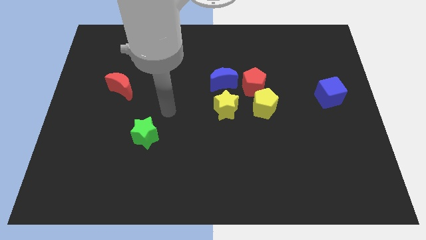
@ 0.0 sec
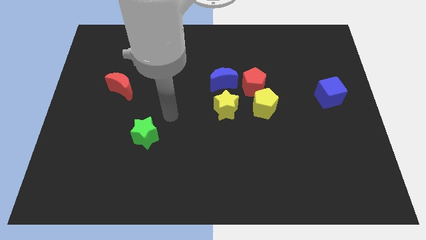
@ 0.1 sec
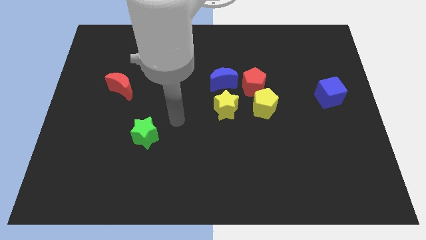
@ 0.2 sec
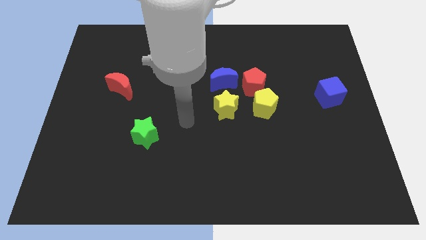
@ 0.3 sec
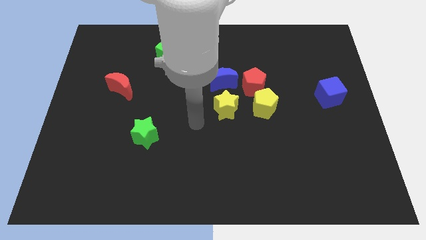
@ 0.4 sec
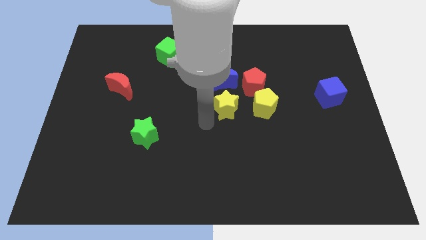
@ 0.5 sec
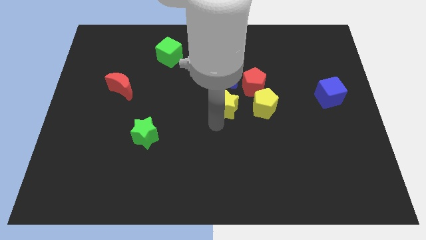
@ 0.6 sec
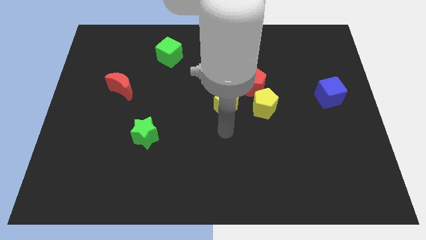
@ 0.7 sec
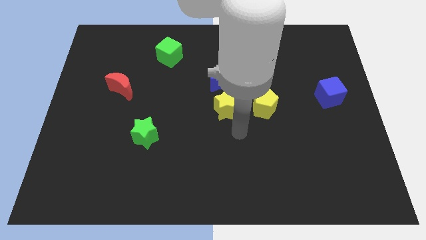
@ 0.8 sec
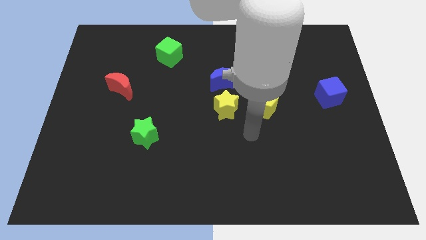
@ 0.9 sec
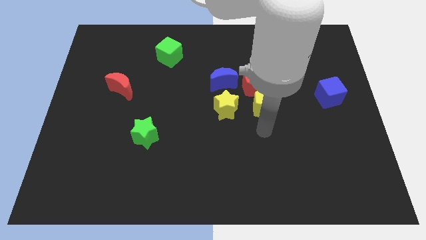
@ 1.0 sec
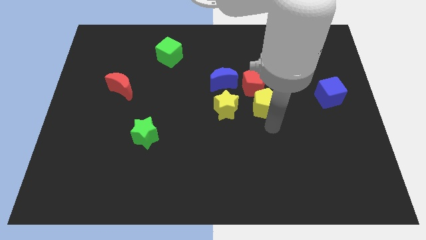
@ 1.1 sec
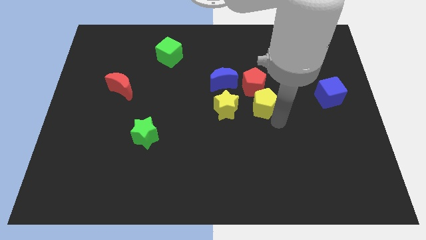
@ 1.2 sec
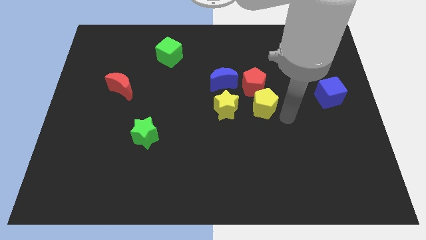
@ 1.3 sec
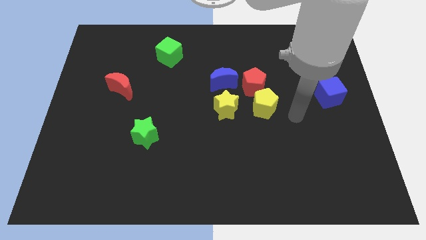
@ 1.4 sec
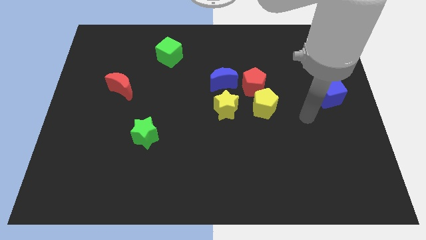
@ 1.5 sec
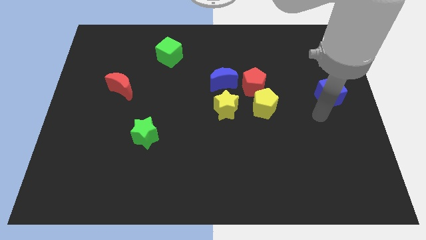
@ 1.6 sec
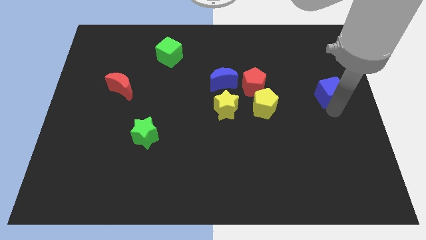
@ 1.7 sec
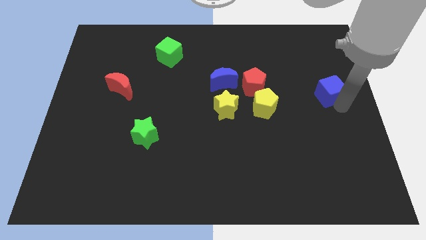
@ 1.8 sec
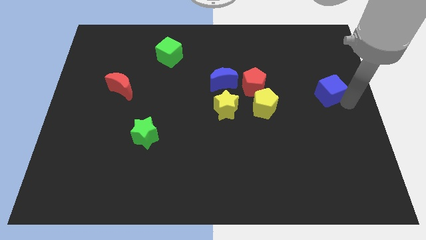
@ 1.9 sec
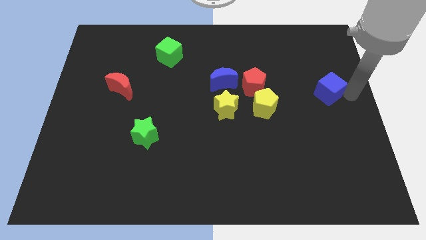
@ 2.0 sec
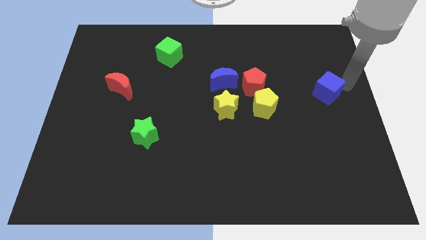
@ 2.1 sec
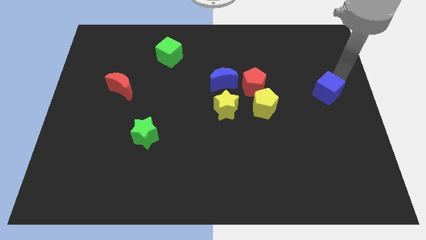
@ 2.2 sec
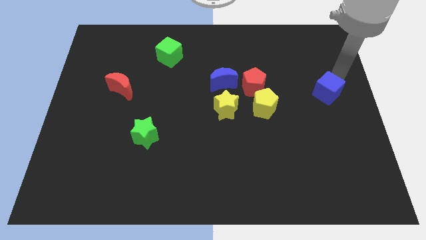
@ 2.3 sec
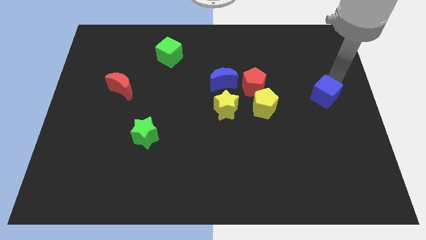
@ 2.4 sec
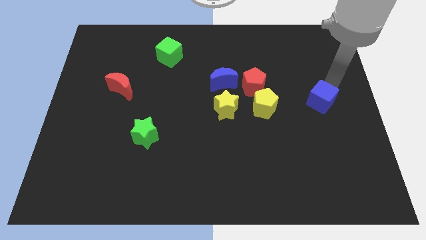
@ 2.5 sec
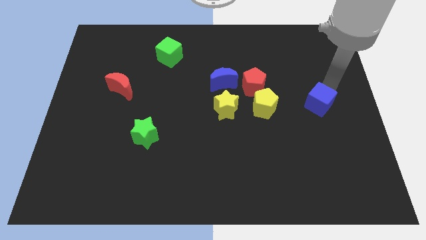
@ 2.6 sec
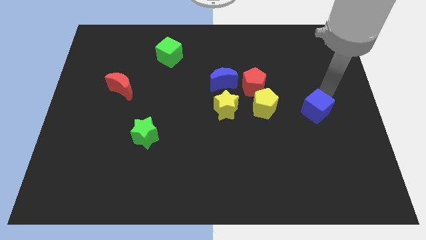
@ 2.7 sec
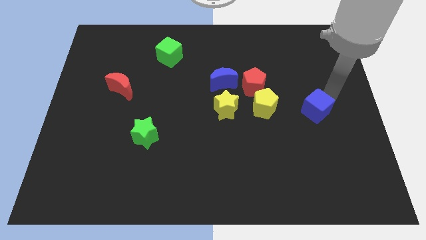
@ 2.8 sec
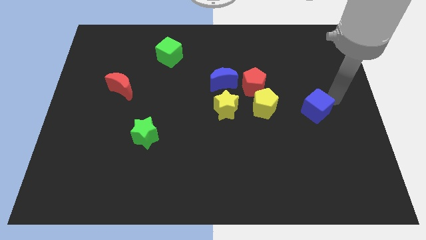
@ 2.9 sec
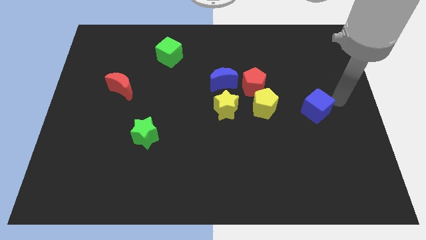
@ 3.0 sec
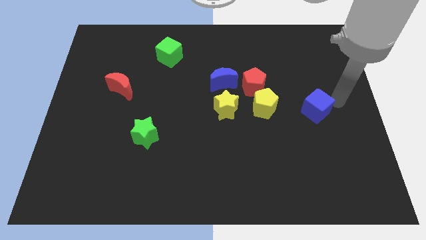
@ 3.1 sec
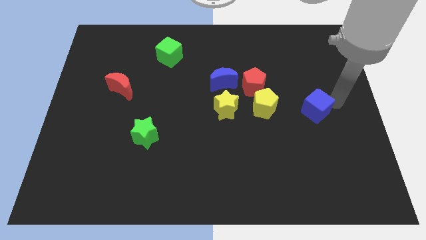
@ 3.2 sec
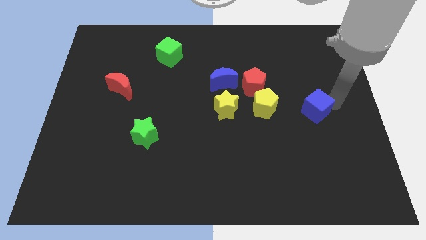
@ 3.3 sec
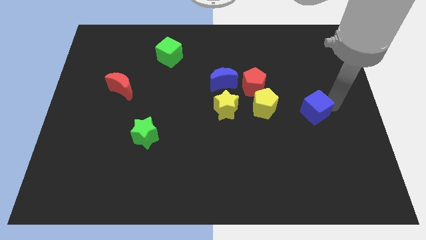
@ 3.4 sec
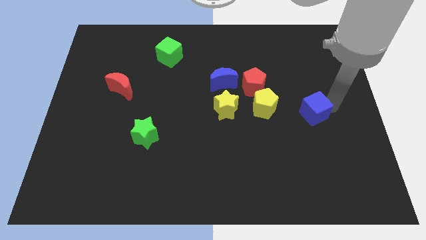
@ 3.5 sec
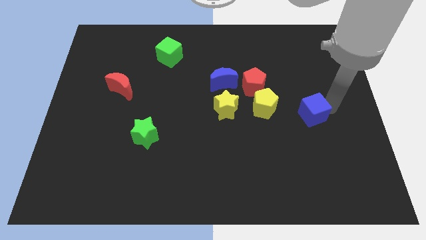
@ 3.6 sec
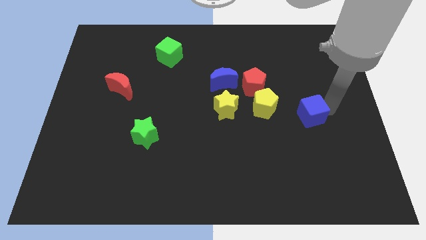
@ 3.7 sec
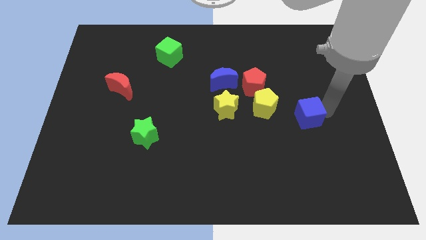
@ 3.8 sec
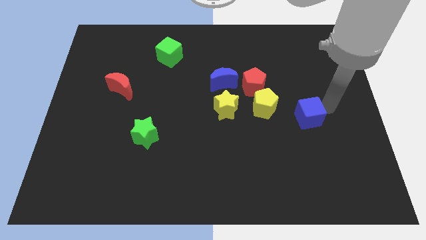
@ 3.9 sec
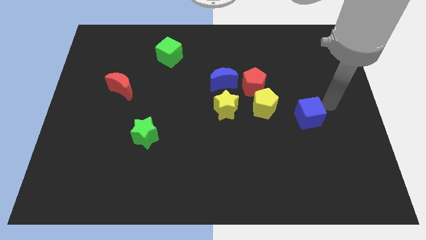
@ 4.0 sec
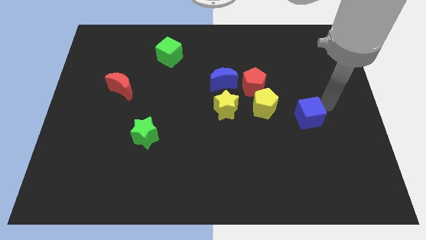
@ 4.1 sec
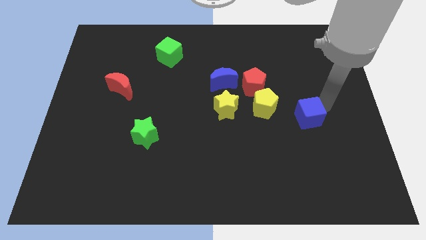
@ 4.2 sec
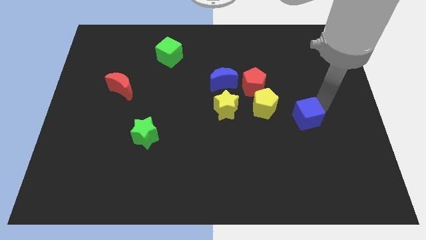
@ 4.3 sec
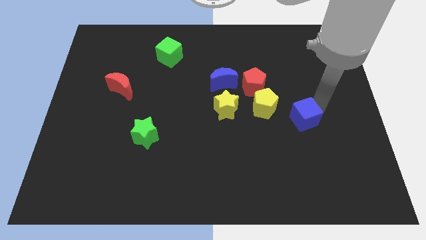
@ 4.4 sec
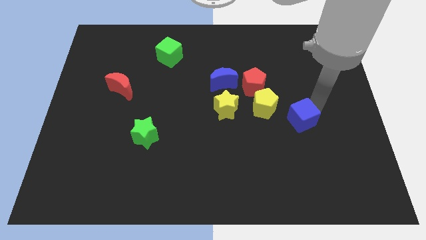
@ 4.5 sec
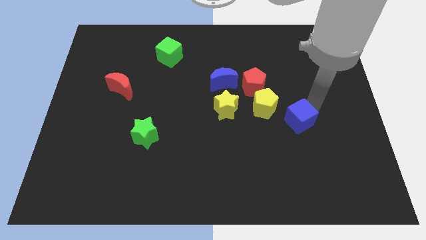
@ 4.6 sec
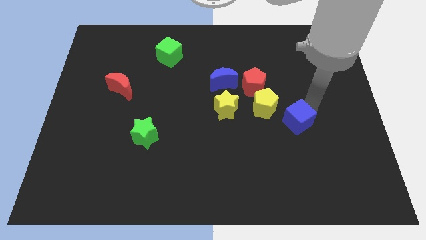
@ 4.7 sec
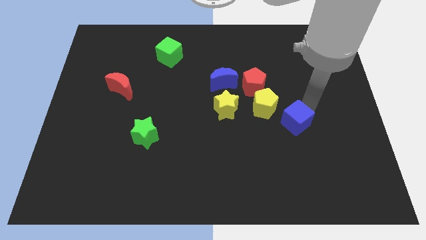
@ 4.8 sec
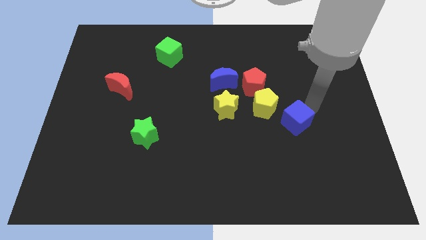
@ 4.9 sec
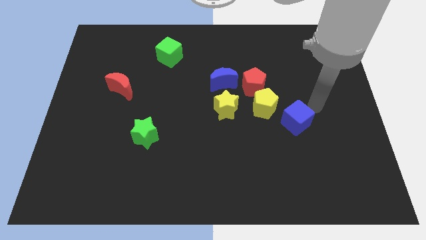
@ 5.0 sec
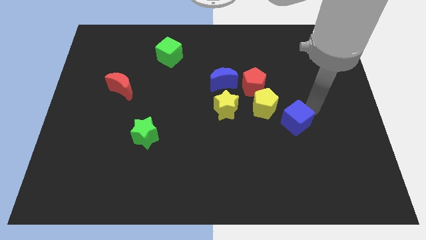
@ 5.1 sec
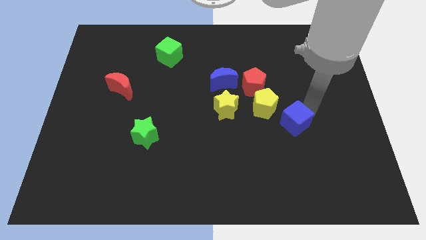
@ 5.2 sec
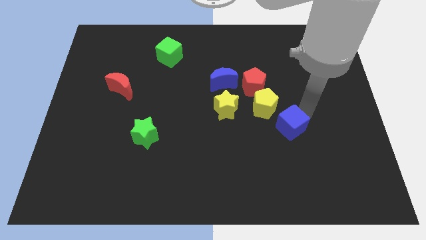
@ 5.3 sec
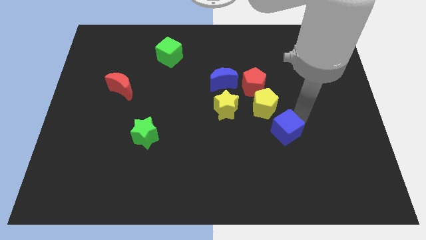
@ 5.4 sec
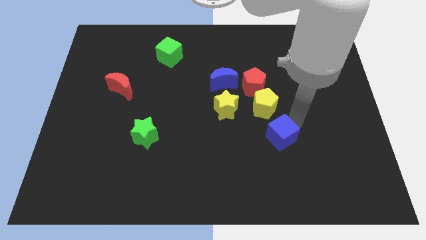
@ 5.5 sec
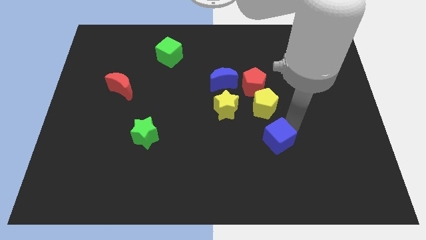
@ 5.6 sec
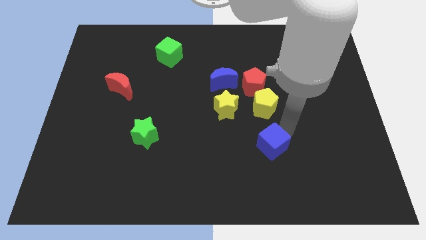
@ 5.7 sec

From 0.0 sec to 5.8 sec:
move the blue cube downwards and to the left

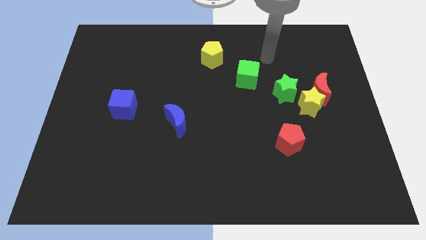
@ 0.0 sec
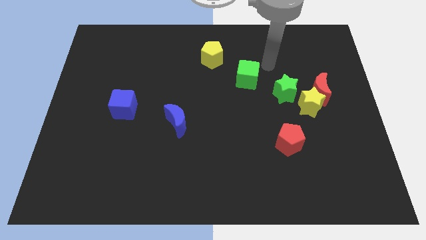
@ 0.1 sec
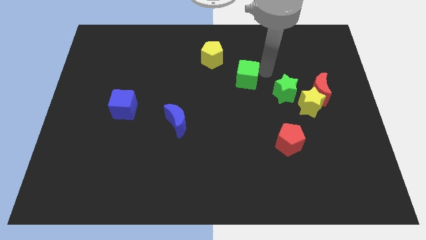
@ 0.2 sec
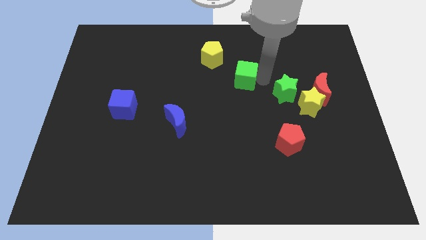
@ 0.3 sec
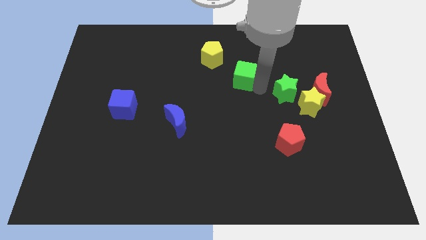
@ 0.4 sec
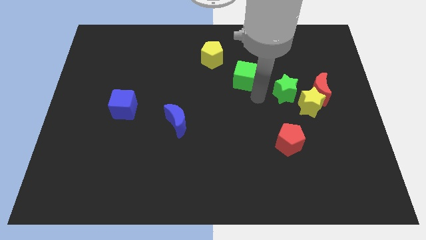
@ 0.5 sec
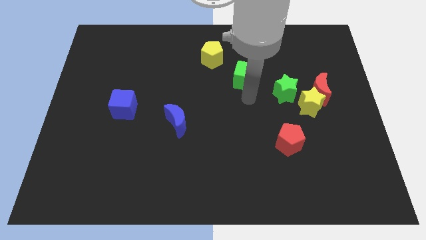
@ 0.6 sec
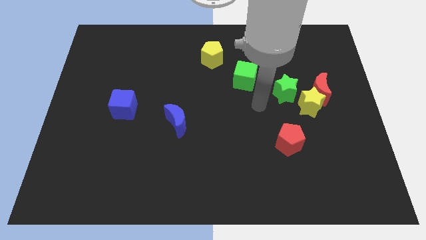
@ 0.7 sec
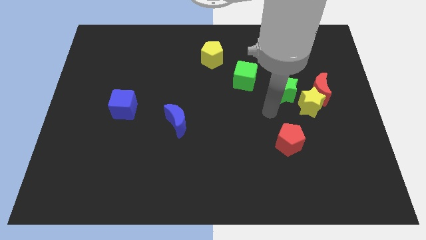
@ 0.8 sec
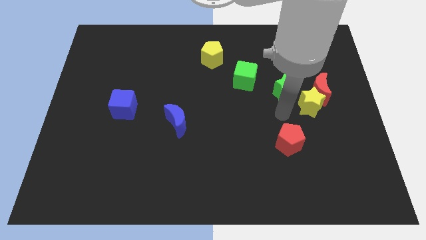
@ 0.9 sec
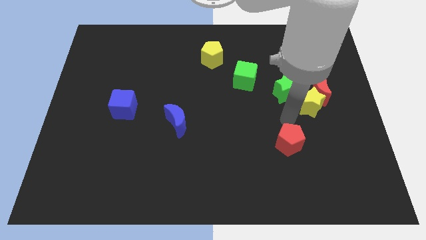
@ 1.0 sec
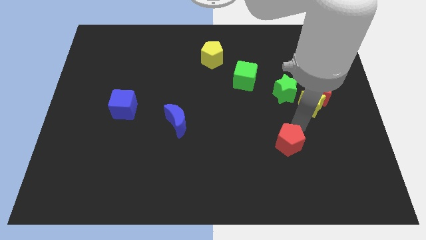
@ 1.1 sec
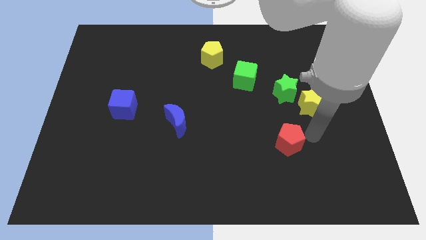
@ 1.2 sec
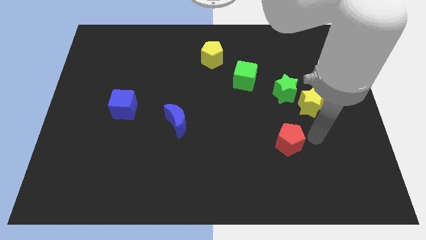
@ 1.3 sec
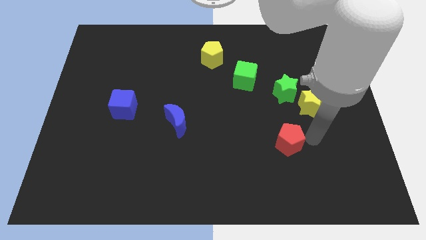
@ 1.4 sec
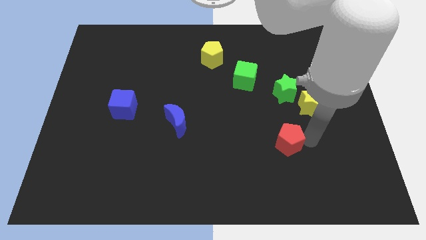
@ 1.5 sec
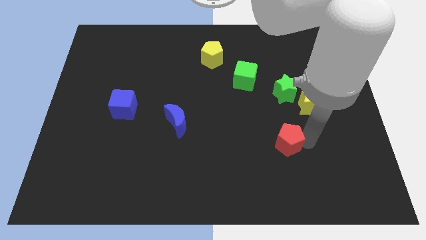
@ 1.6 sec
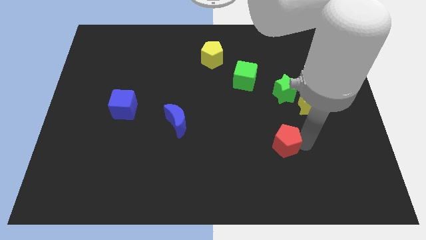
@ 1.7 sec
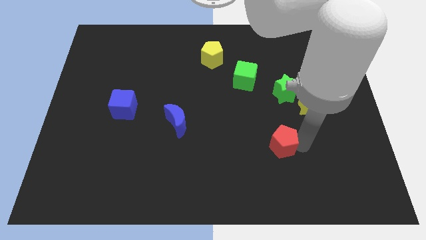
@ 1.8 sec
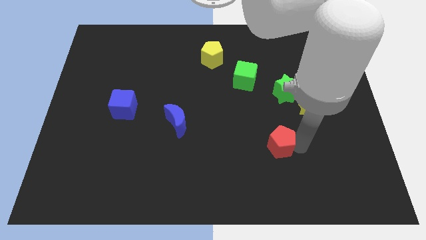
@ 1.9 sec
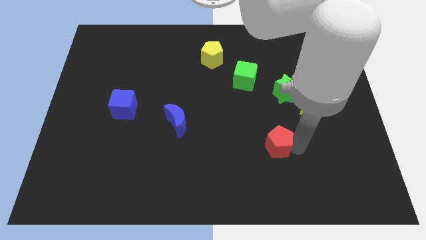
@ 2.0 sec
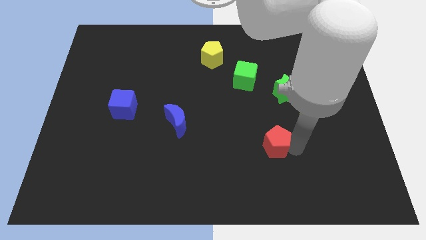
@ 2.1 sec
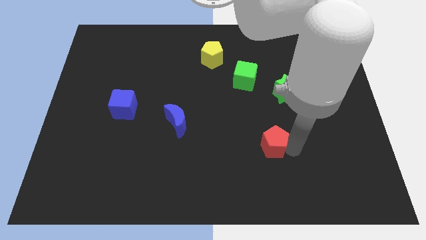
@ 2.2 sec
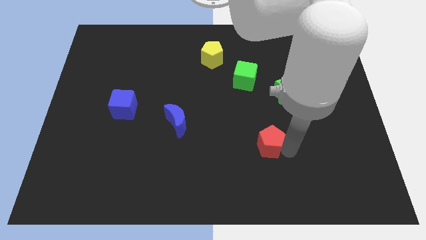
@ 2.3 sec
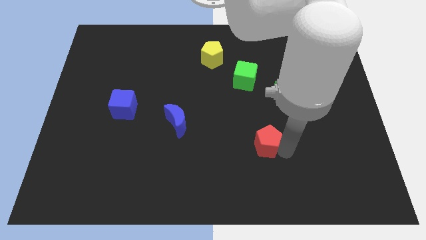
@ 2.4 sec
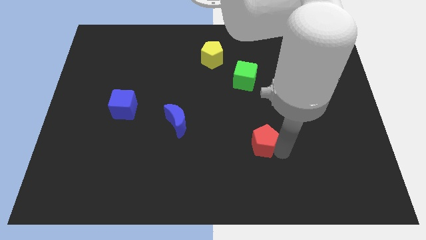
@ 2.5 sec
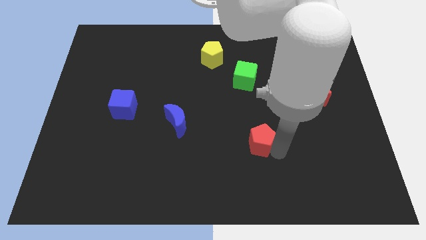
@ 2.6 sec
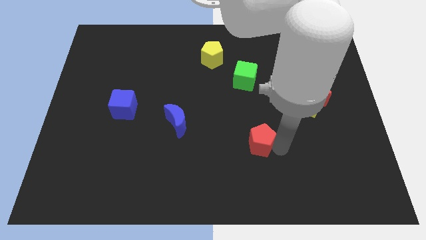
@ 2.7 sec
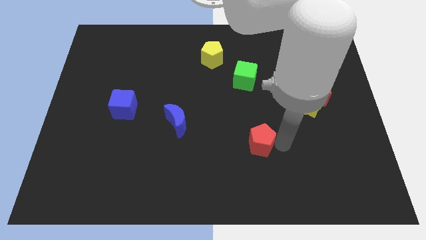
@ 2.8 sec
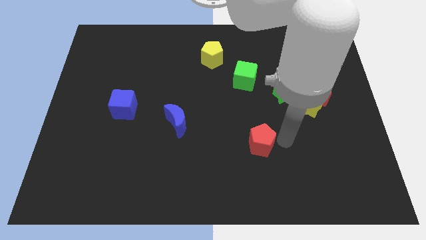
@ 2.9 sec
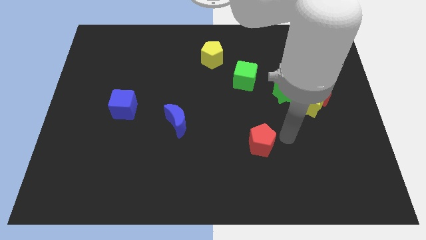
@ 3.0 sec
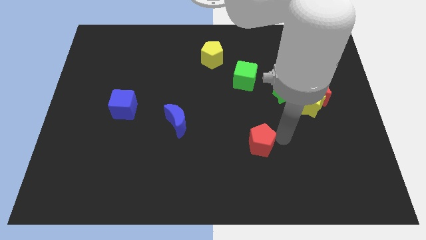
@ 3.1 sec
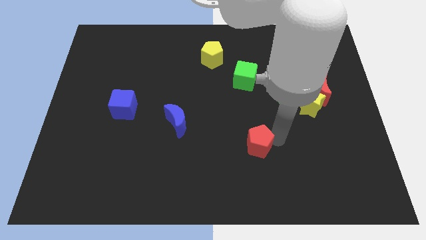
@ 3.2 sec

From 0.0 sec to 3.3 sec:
slightly slide the red pentagon left
